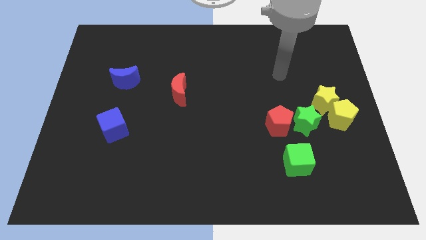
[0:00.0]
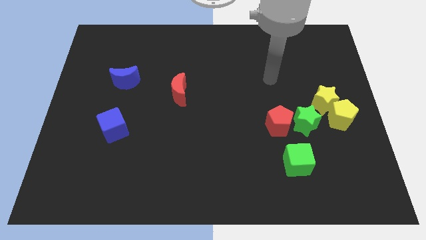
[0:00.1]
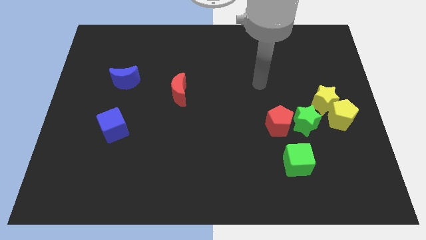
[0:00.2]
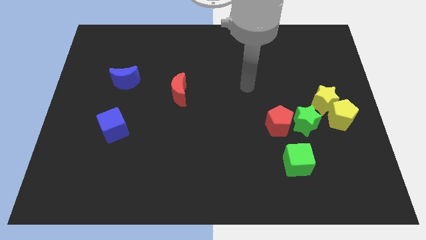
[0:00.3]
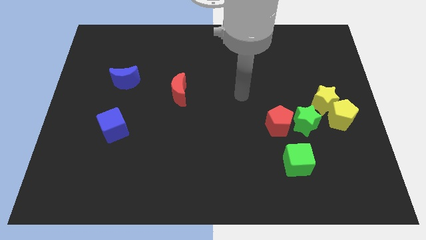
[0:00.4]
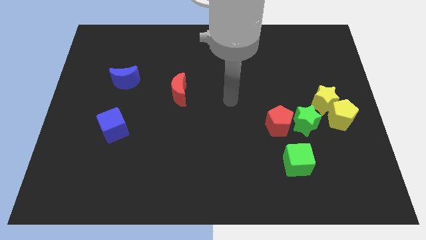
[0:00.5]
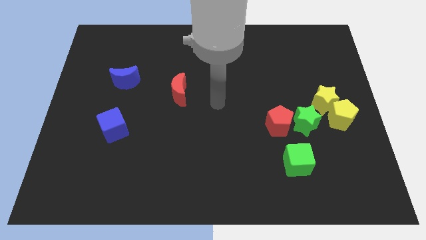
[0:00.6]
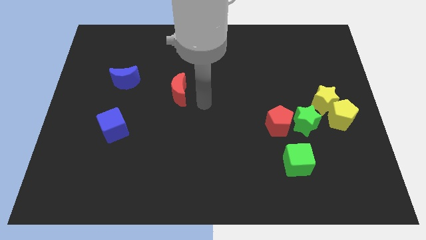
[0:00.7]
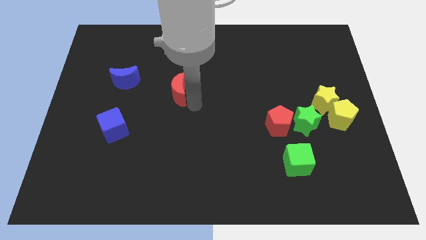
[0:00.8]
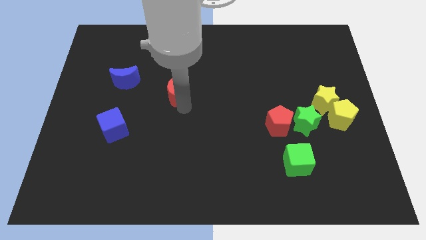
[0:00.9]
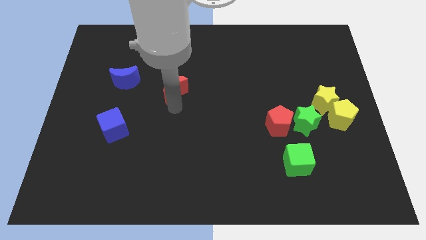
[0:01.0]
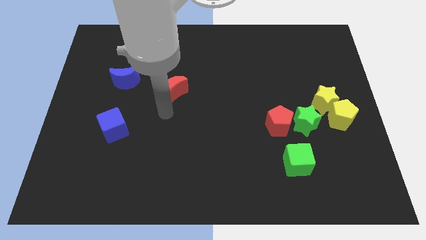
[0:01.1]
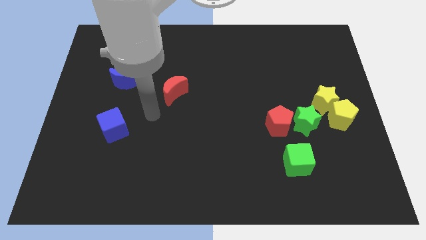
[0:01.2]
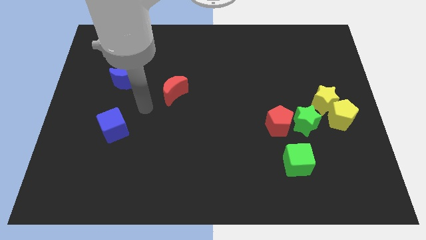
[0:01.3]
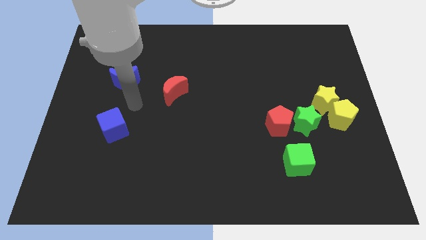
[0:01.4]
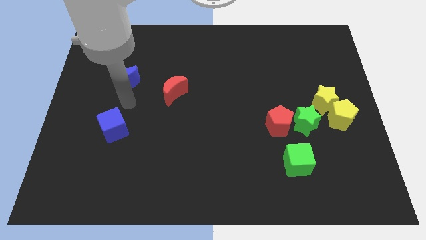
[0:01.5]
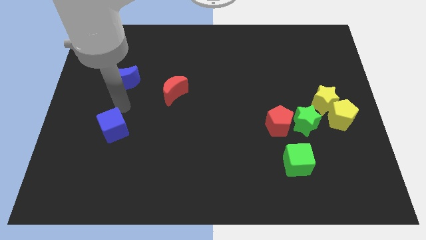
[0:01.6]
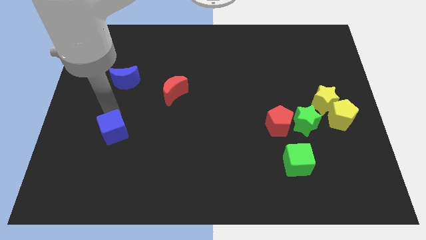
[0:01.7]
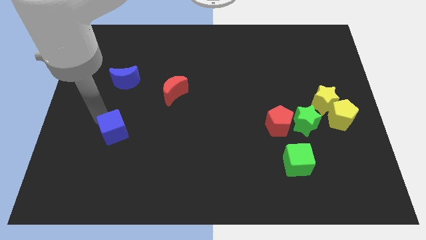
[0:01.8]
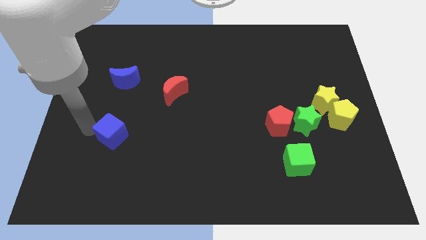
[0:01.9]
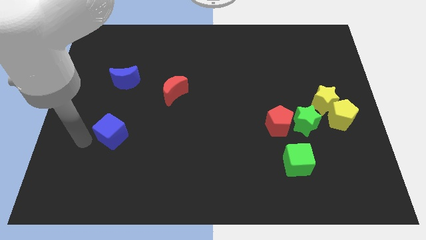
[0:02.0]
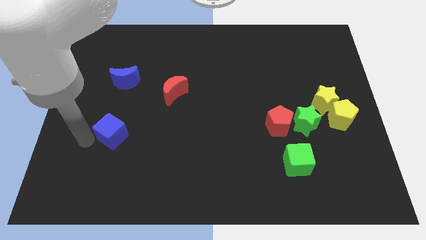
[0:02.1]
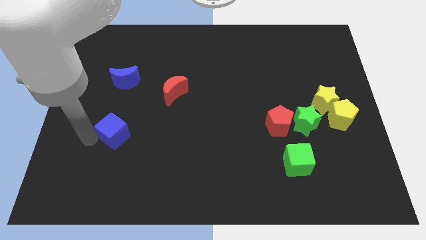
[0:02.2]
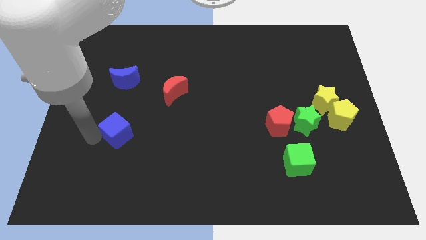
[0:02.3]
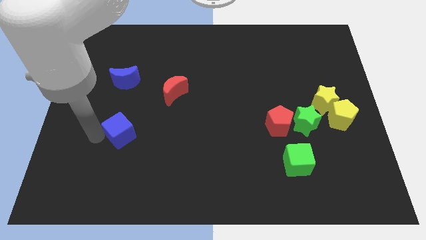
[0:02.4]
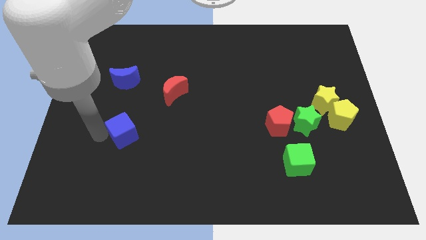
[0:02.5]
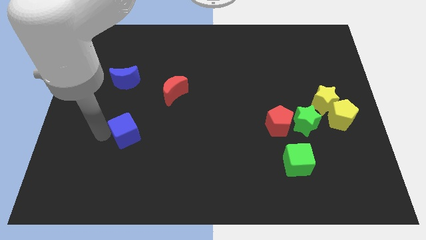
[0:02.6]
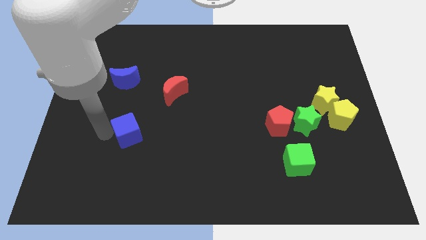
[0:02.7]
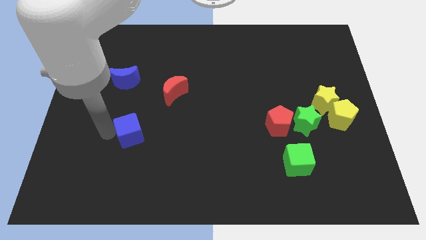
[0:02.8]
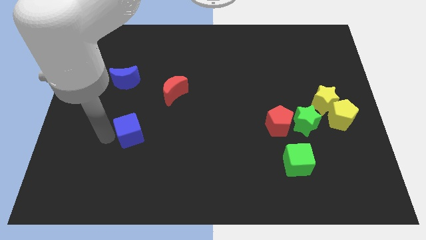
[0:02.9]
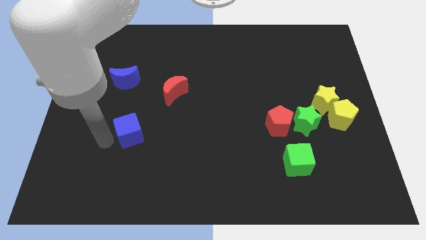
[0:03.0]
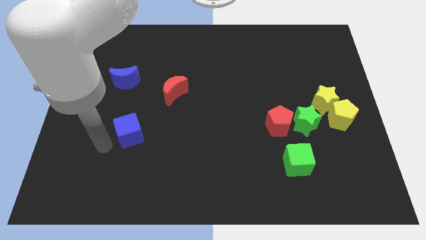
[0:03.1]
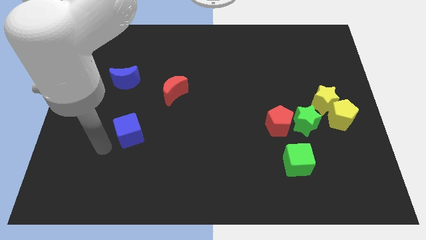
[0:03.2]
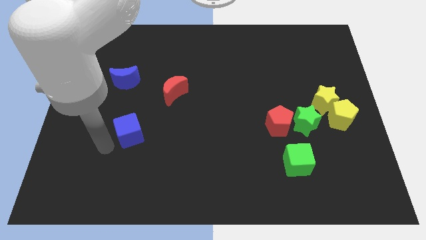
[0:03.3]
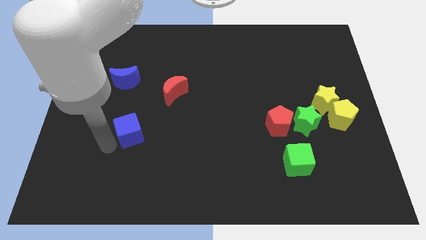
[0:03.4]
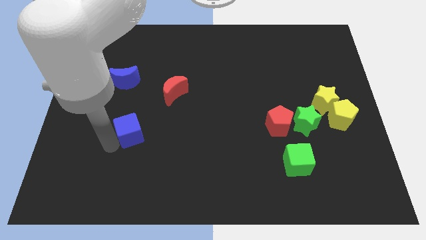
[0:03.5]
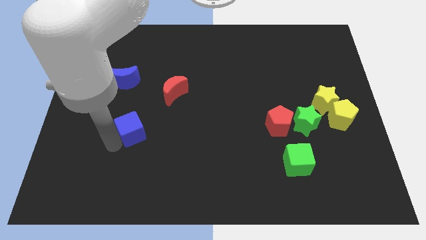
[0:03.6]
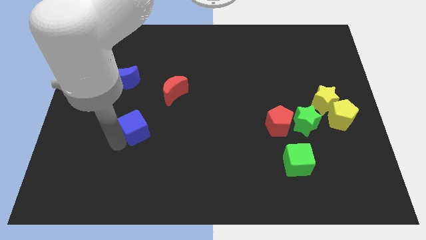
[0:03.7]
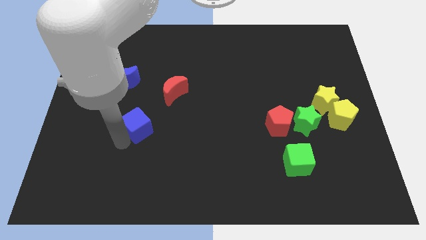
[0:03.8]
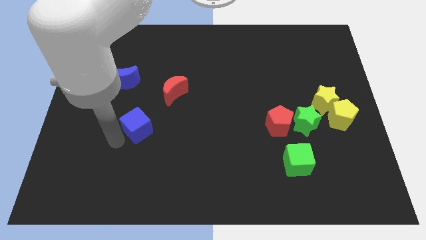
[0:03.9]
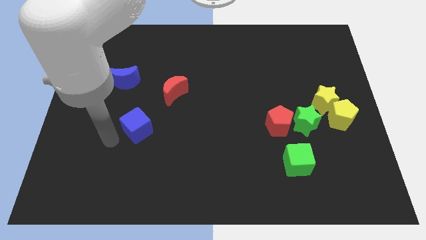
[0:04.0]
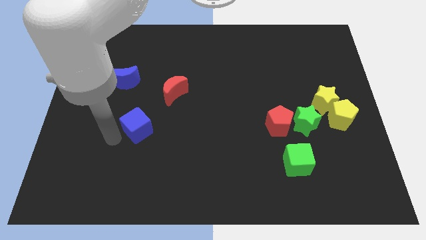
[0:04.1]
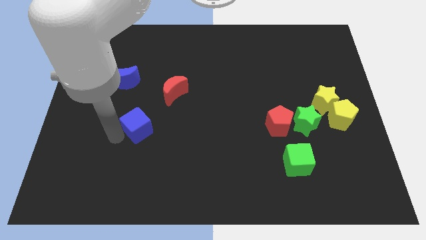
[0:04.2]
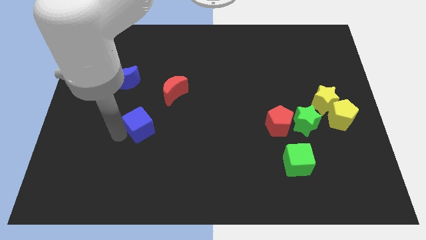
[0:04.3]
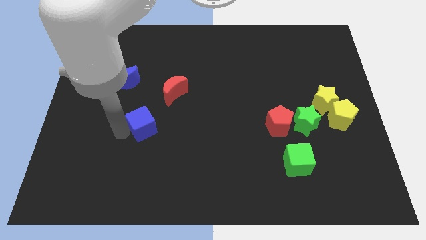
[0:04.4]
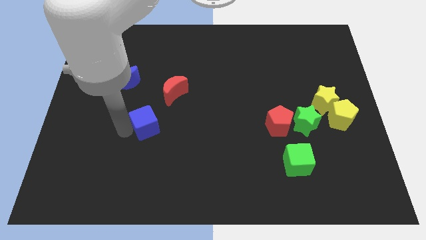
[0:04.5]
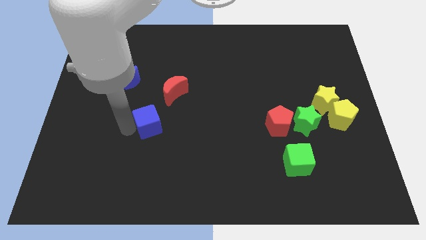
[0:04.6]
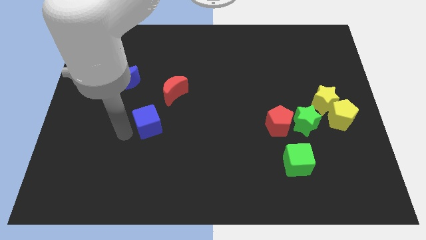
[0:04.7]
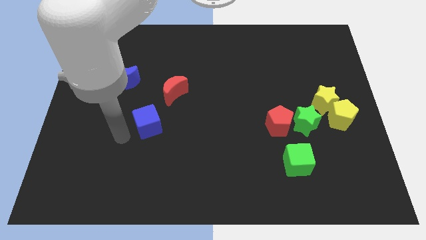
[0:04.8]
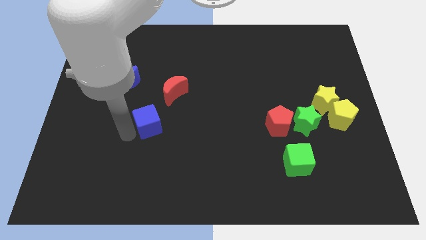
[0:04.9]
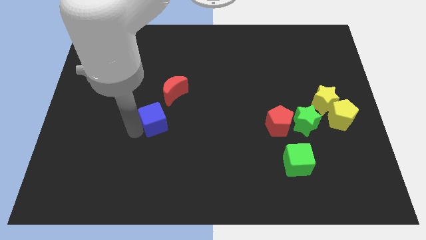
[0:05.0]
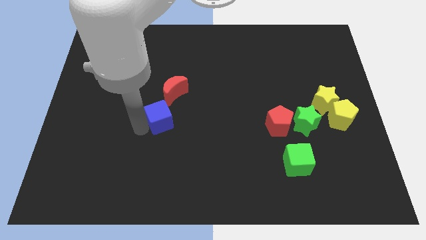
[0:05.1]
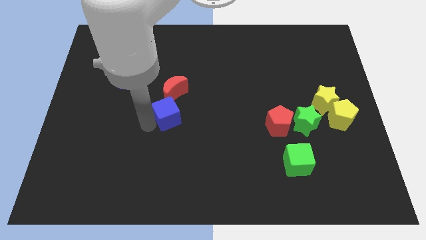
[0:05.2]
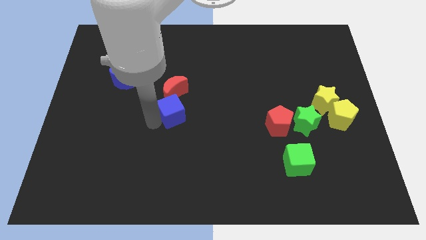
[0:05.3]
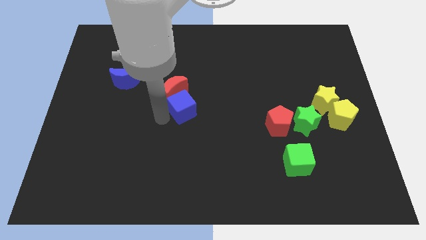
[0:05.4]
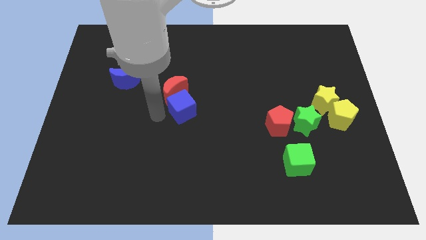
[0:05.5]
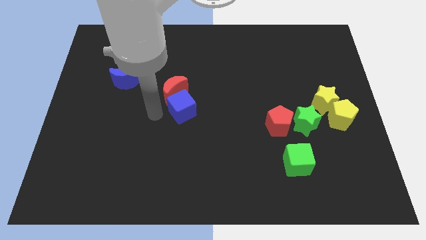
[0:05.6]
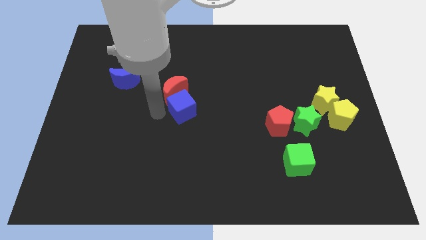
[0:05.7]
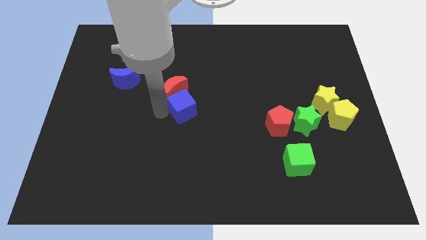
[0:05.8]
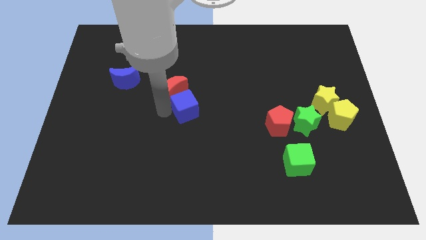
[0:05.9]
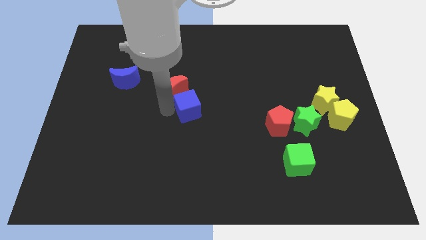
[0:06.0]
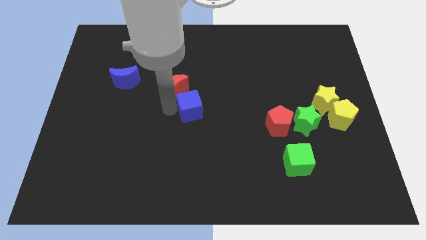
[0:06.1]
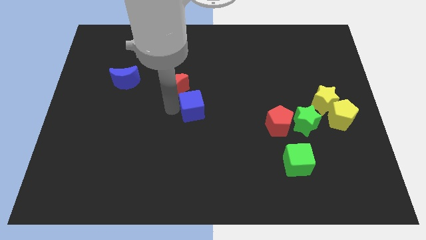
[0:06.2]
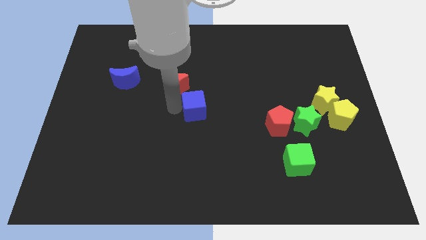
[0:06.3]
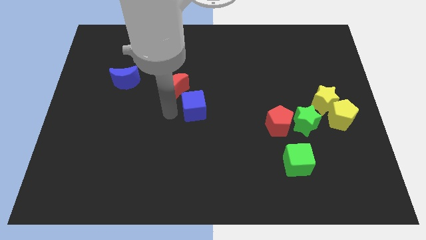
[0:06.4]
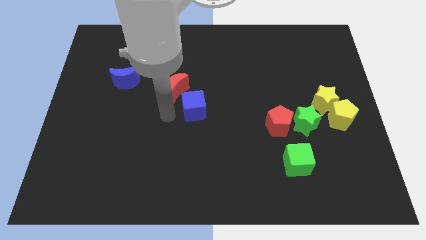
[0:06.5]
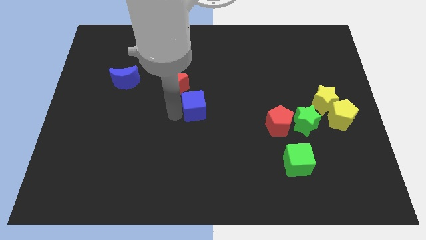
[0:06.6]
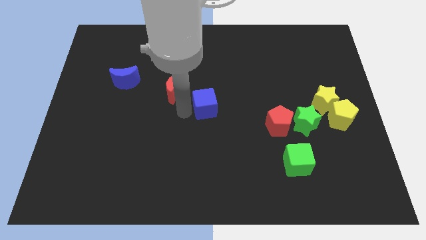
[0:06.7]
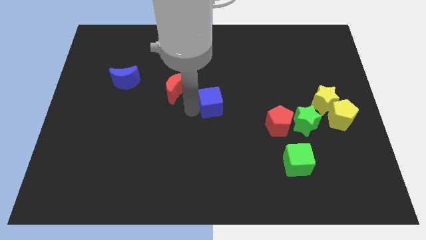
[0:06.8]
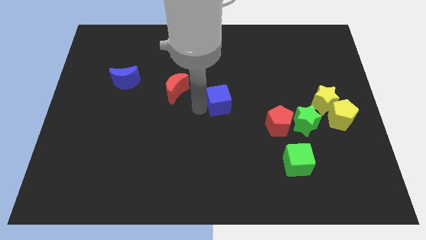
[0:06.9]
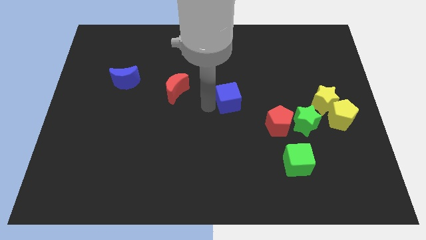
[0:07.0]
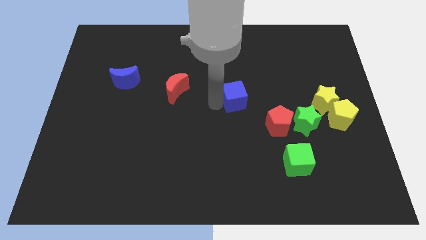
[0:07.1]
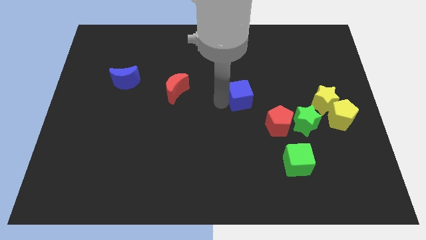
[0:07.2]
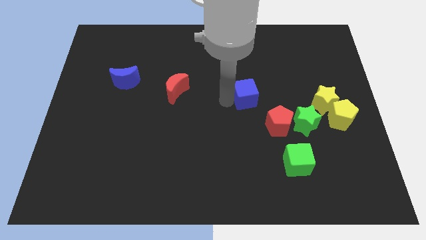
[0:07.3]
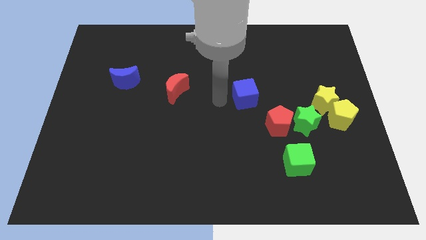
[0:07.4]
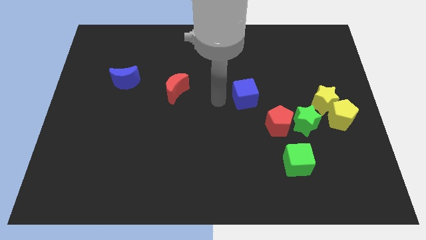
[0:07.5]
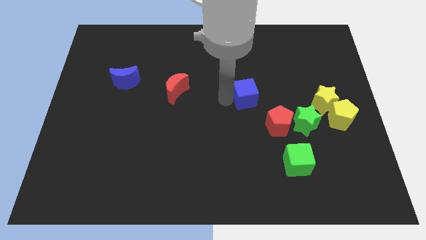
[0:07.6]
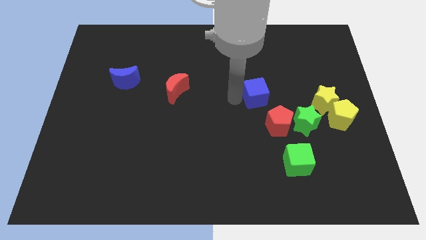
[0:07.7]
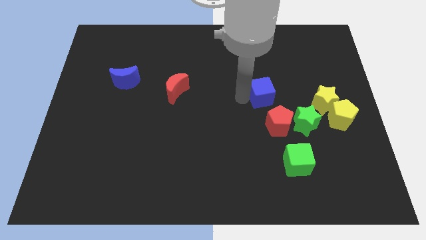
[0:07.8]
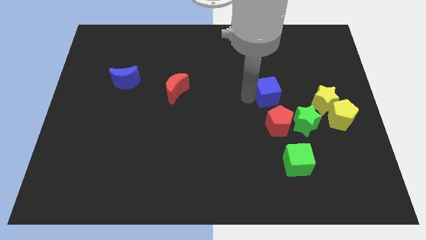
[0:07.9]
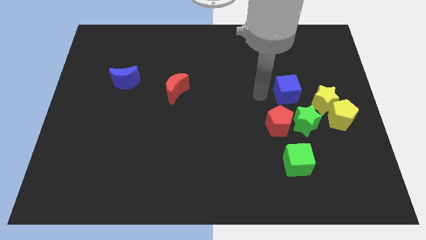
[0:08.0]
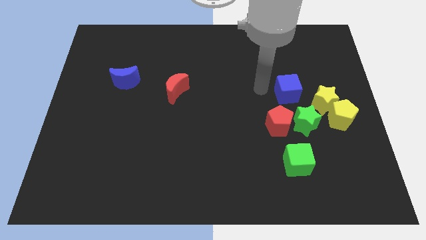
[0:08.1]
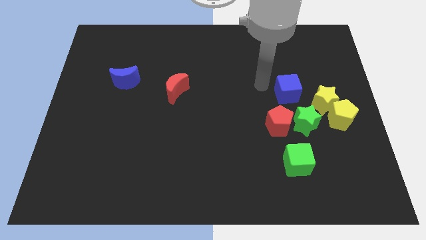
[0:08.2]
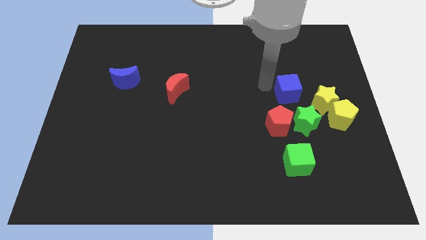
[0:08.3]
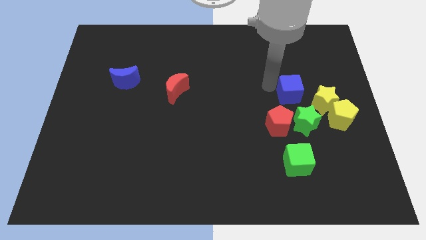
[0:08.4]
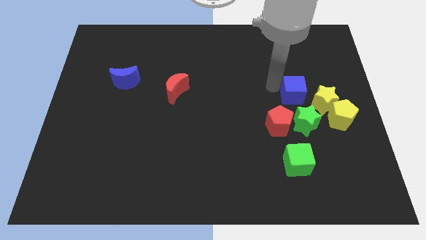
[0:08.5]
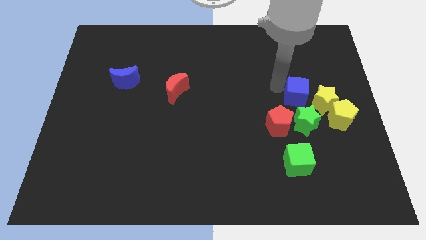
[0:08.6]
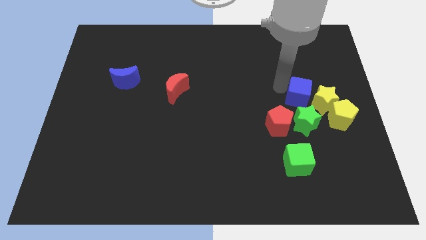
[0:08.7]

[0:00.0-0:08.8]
move the blue cube to the yellow star
